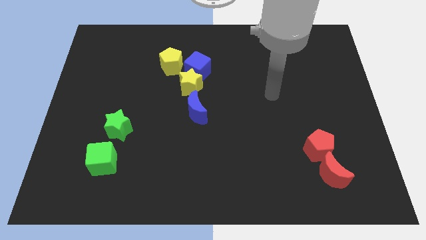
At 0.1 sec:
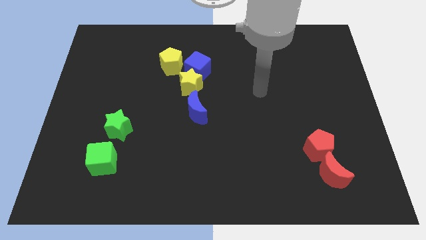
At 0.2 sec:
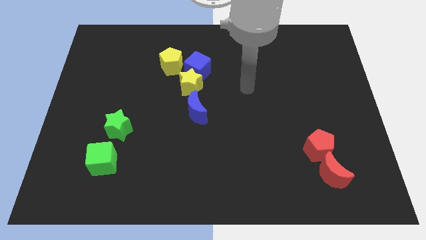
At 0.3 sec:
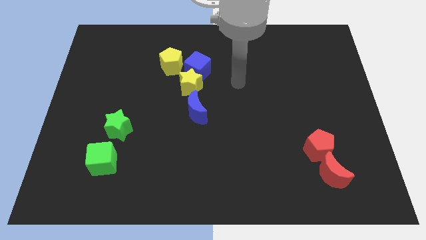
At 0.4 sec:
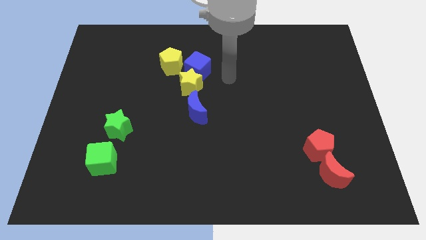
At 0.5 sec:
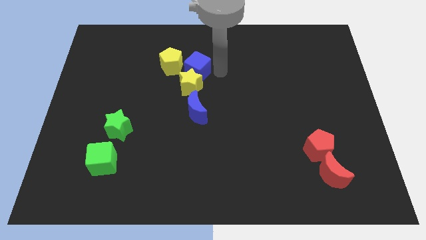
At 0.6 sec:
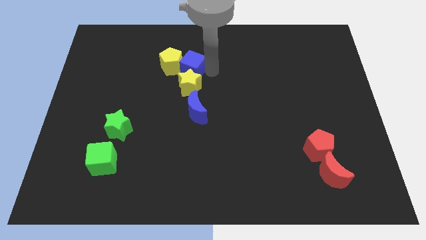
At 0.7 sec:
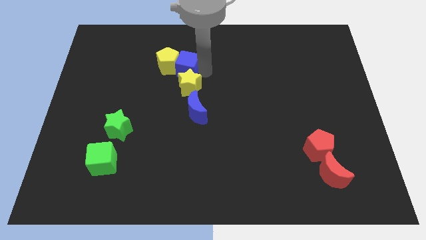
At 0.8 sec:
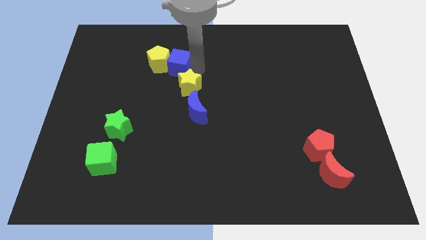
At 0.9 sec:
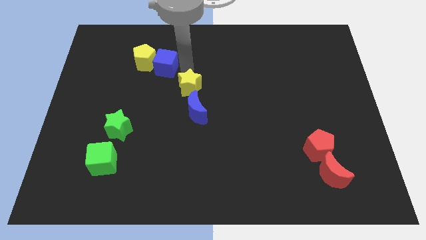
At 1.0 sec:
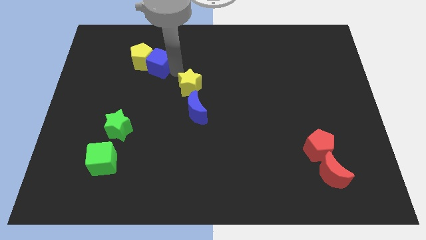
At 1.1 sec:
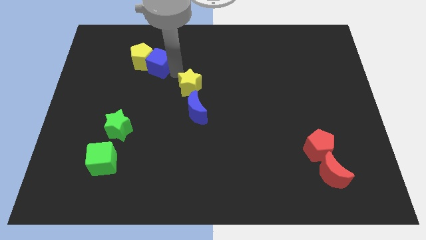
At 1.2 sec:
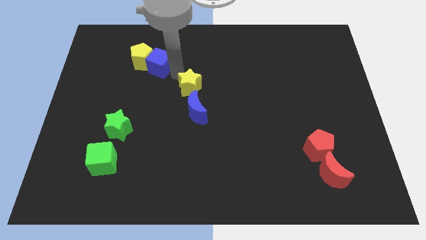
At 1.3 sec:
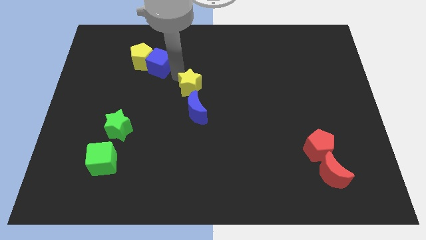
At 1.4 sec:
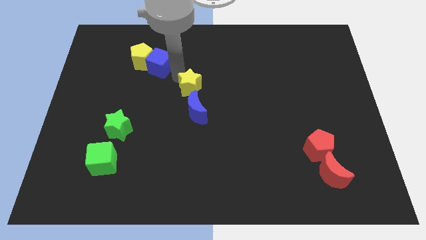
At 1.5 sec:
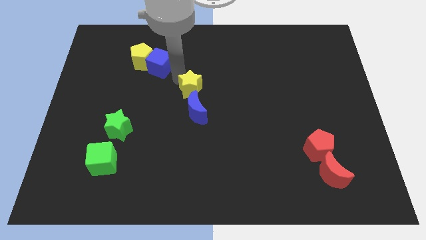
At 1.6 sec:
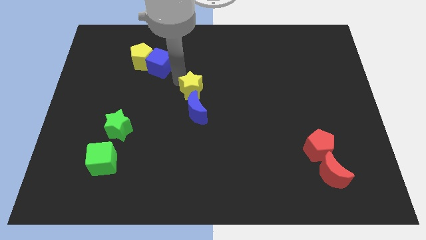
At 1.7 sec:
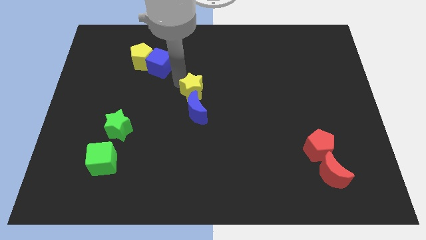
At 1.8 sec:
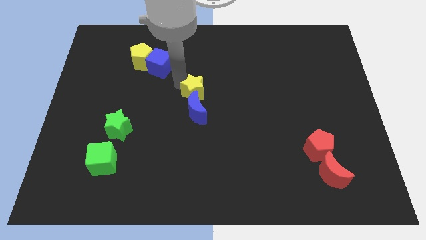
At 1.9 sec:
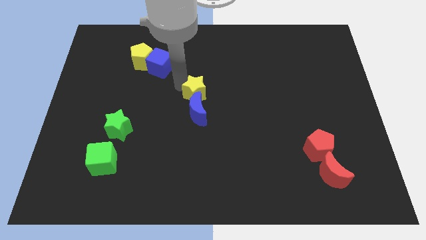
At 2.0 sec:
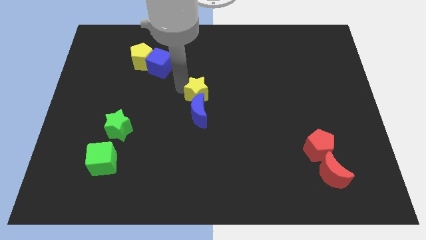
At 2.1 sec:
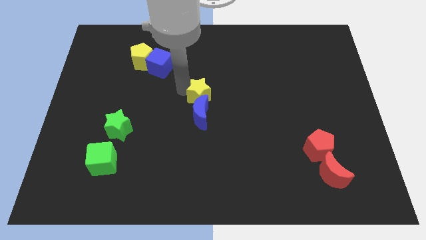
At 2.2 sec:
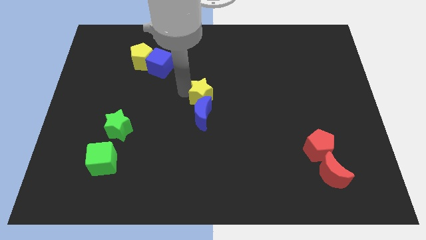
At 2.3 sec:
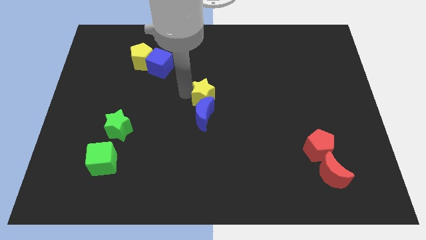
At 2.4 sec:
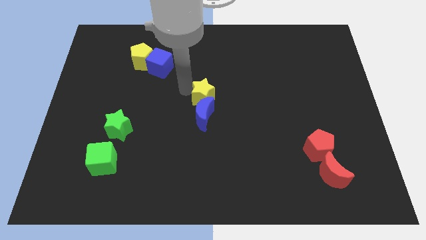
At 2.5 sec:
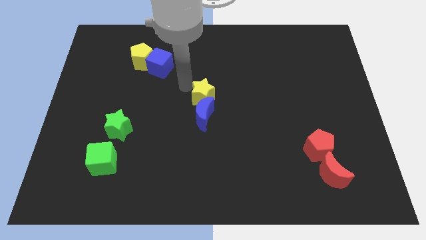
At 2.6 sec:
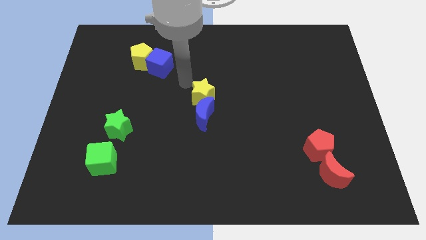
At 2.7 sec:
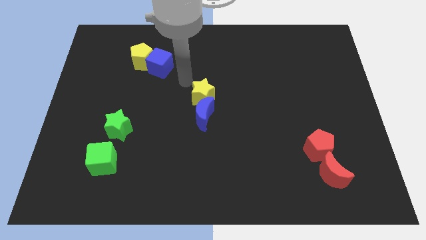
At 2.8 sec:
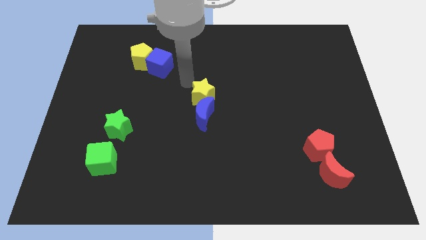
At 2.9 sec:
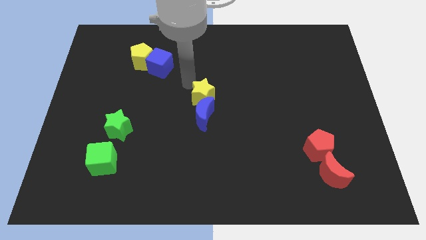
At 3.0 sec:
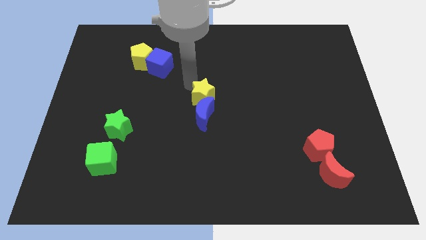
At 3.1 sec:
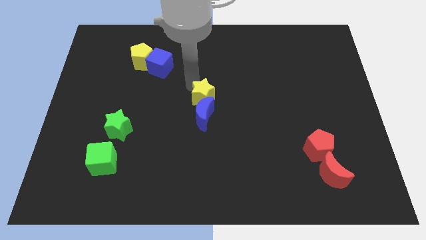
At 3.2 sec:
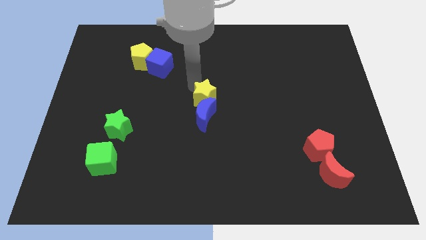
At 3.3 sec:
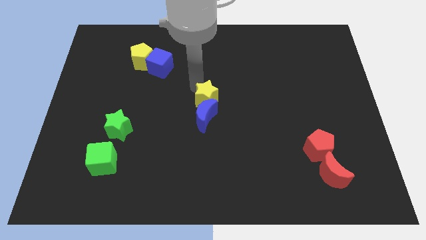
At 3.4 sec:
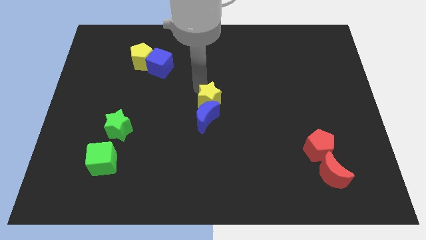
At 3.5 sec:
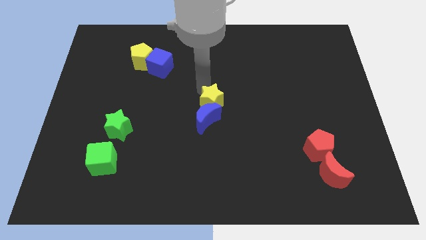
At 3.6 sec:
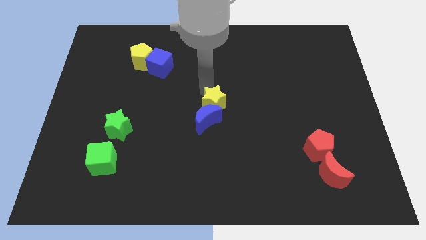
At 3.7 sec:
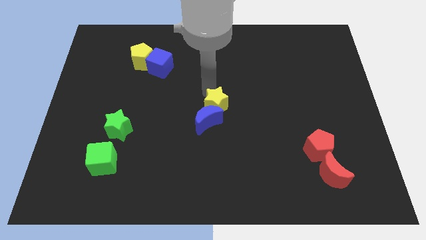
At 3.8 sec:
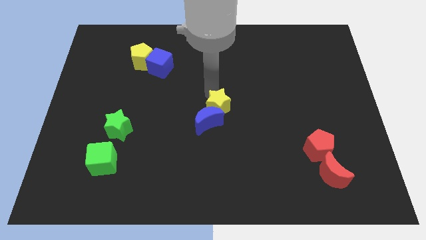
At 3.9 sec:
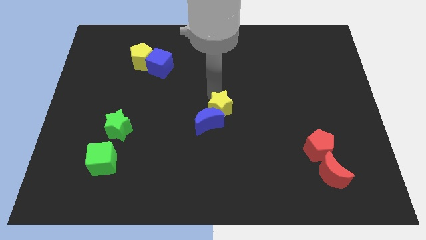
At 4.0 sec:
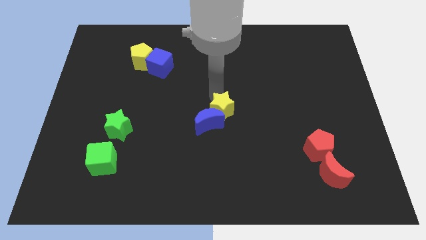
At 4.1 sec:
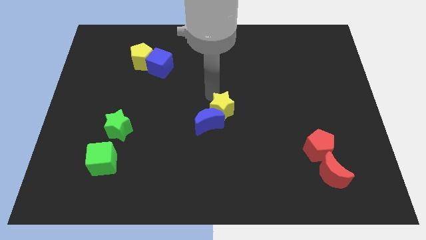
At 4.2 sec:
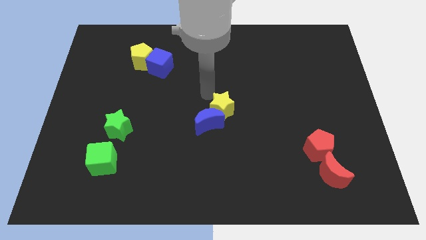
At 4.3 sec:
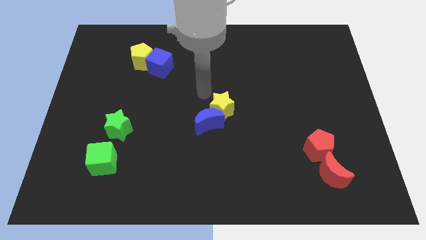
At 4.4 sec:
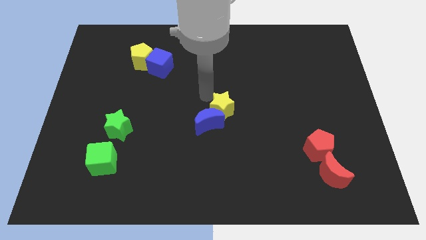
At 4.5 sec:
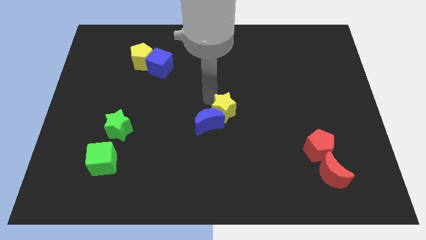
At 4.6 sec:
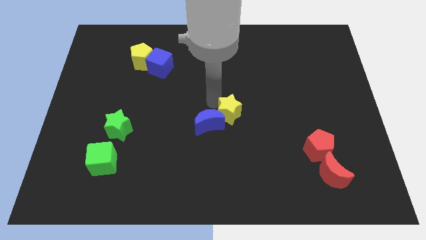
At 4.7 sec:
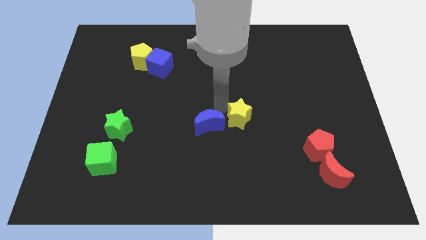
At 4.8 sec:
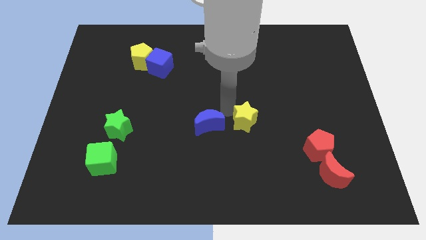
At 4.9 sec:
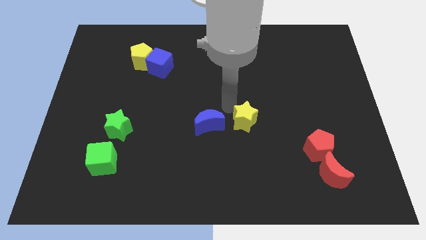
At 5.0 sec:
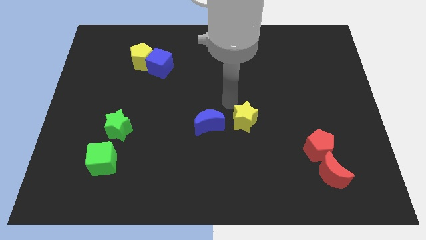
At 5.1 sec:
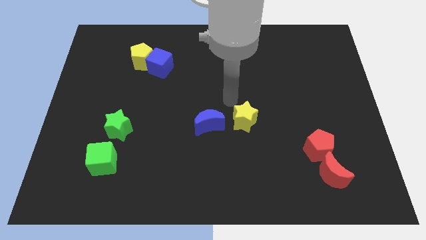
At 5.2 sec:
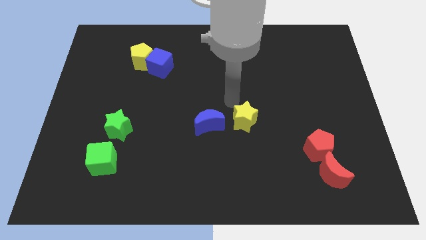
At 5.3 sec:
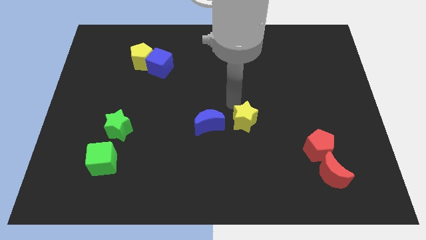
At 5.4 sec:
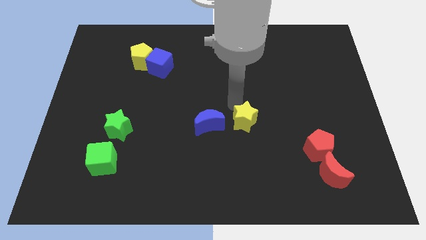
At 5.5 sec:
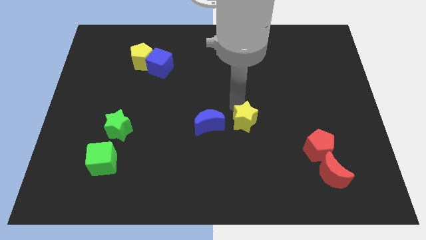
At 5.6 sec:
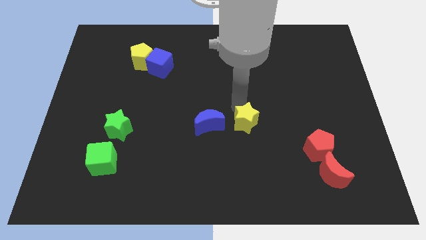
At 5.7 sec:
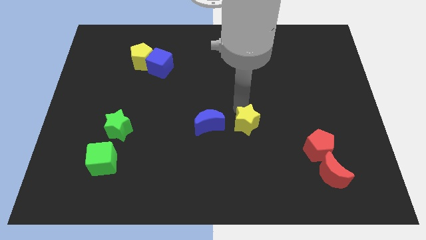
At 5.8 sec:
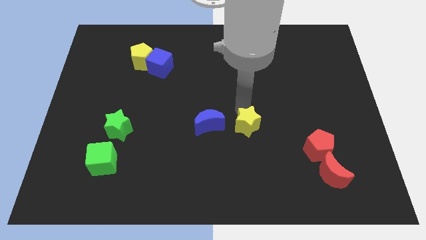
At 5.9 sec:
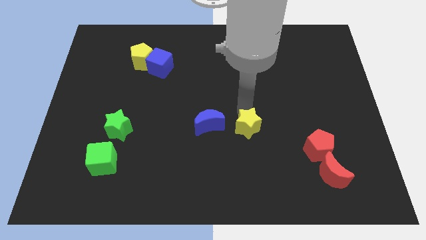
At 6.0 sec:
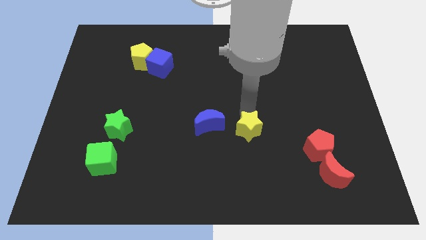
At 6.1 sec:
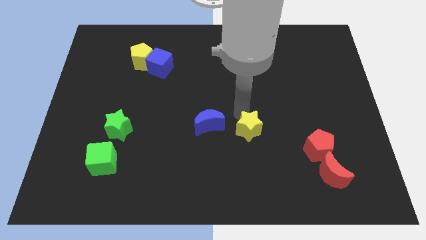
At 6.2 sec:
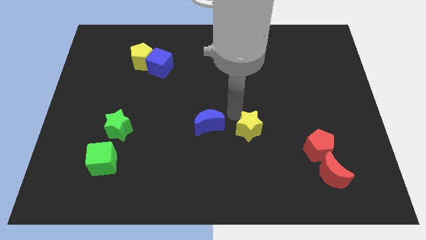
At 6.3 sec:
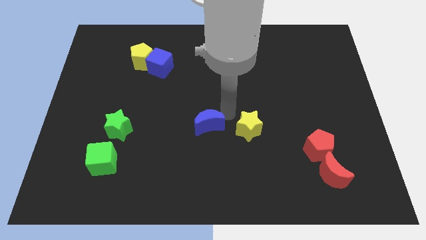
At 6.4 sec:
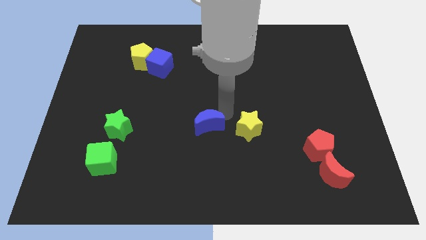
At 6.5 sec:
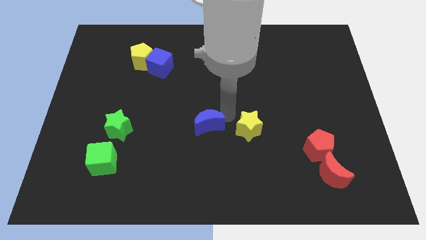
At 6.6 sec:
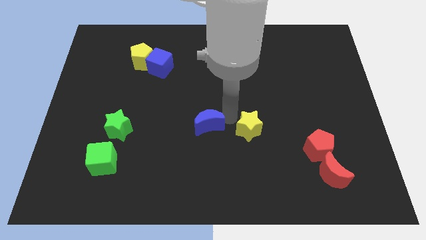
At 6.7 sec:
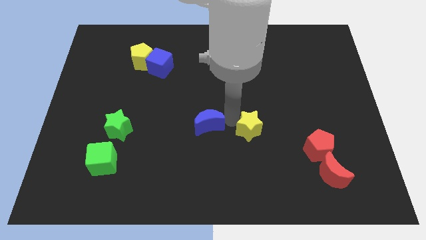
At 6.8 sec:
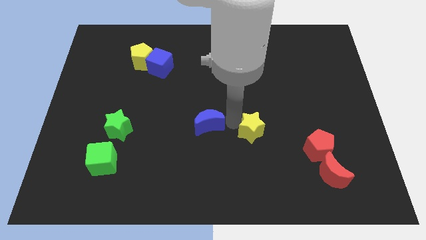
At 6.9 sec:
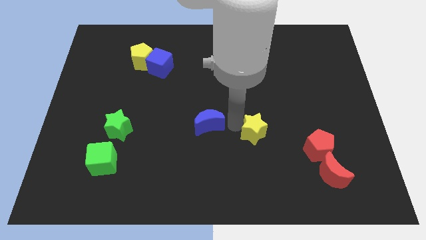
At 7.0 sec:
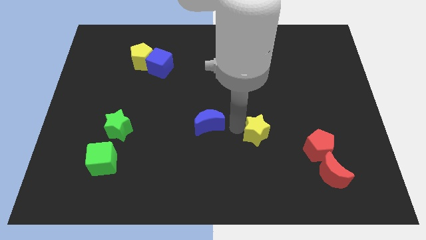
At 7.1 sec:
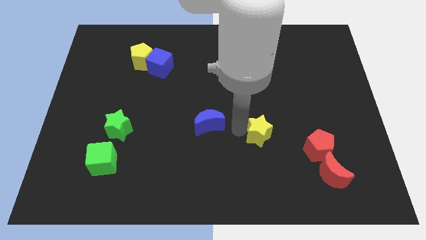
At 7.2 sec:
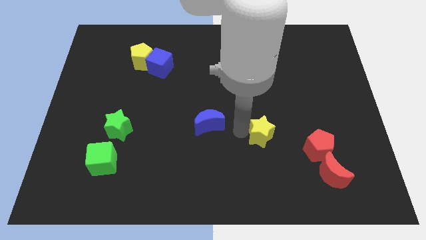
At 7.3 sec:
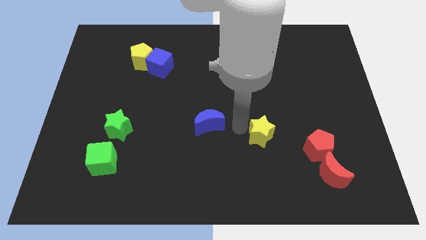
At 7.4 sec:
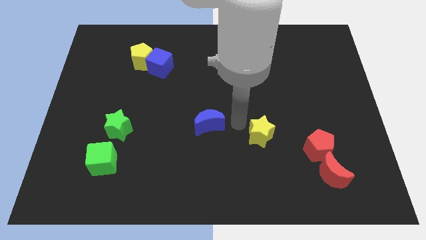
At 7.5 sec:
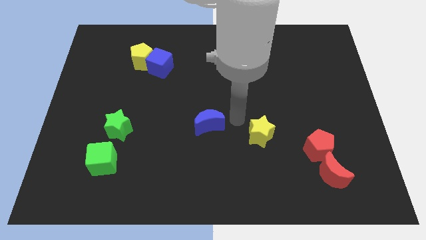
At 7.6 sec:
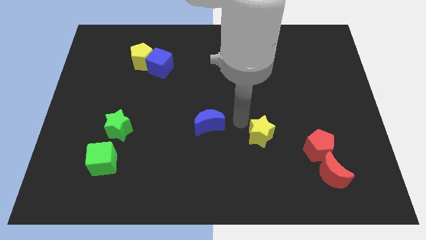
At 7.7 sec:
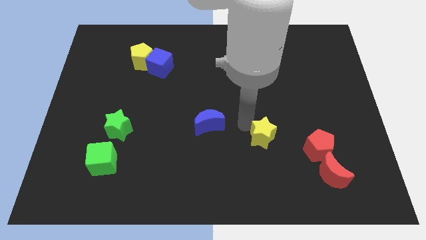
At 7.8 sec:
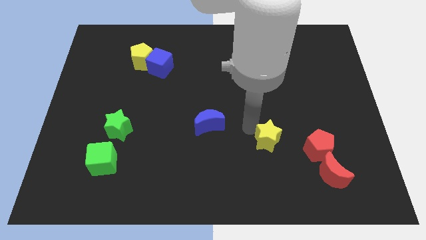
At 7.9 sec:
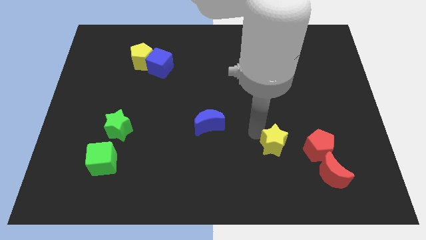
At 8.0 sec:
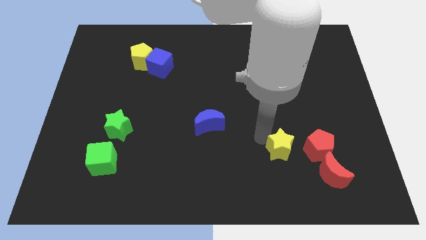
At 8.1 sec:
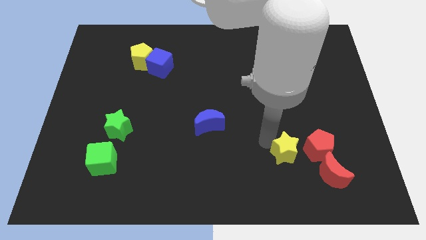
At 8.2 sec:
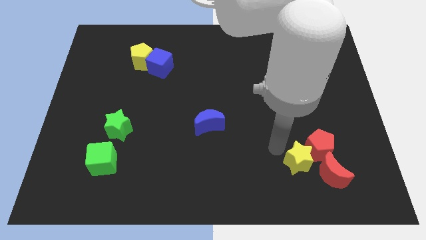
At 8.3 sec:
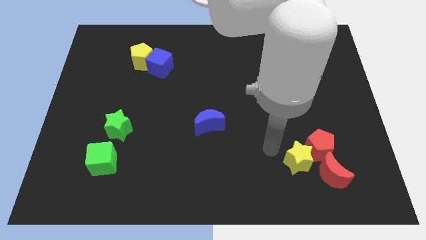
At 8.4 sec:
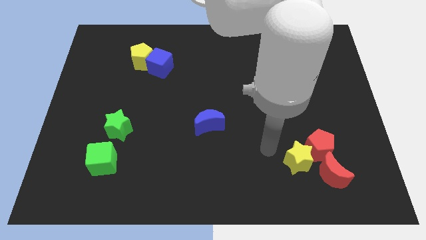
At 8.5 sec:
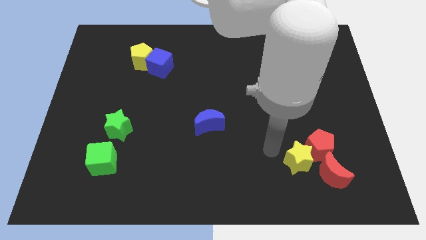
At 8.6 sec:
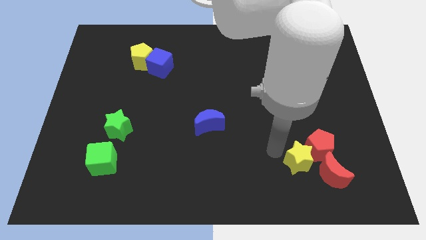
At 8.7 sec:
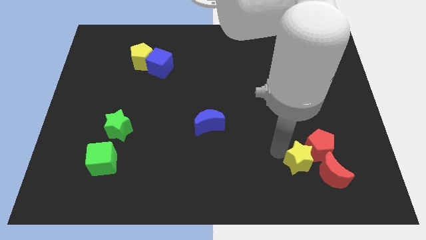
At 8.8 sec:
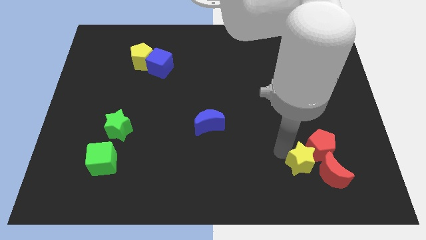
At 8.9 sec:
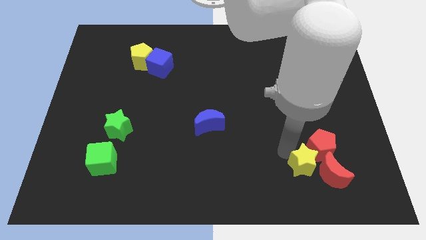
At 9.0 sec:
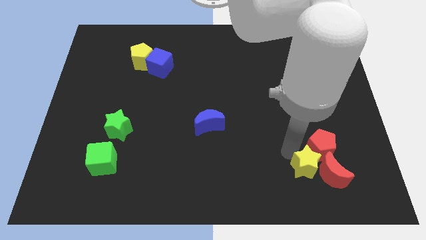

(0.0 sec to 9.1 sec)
push the yellow star towards the red moon
